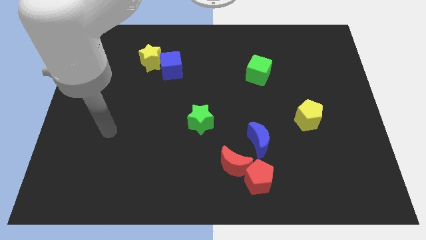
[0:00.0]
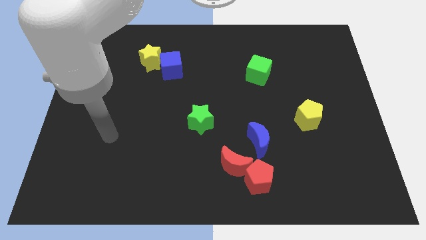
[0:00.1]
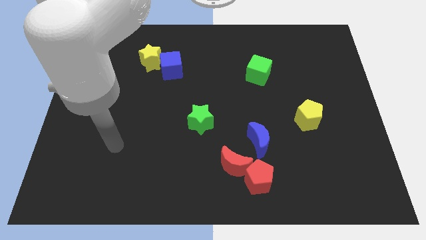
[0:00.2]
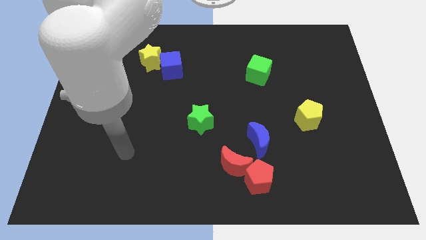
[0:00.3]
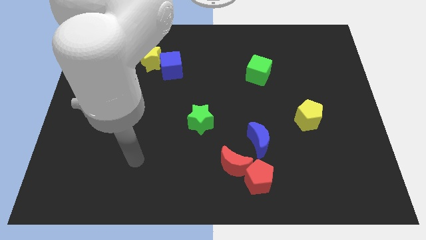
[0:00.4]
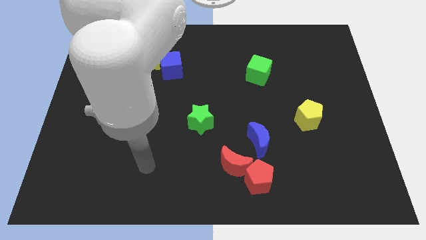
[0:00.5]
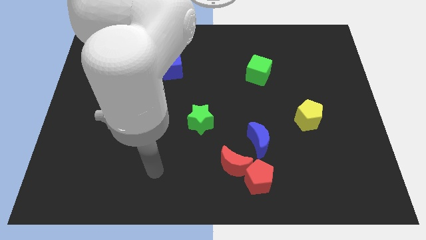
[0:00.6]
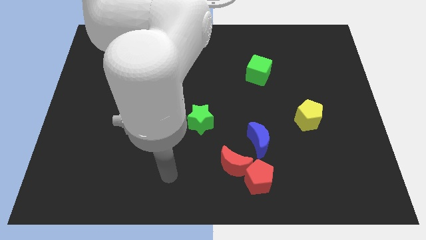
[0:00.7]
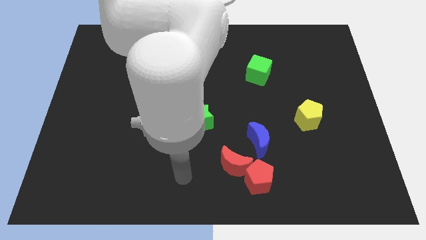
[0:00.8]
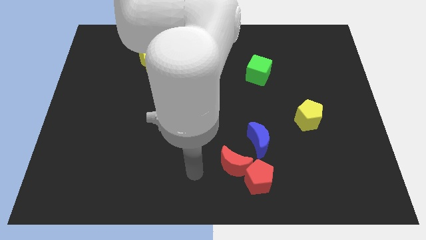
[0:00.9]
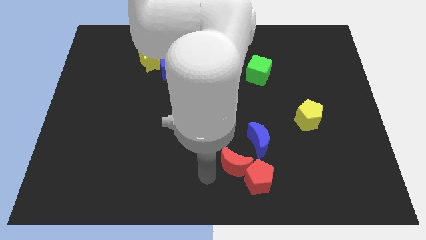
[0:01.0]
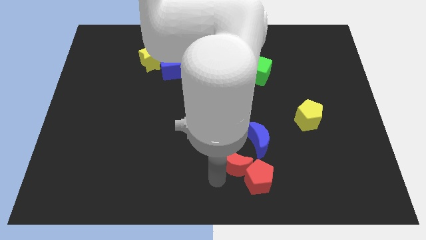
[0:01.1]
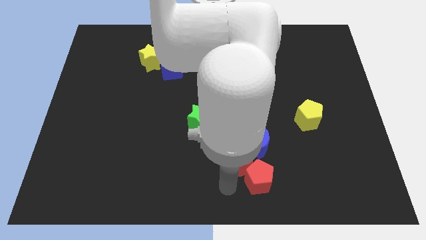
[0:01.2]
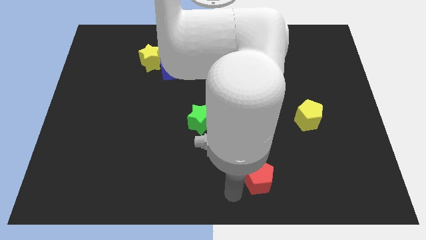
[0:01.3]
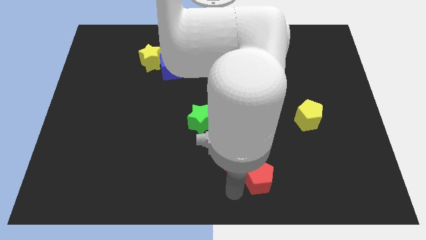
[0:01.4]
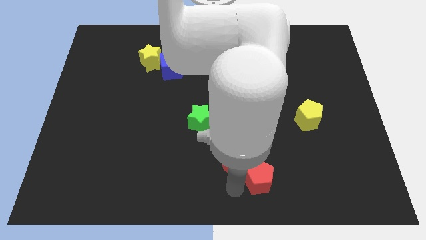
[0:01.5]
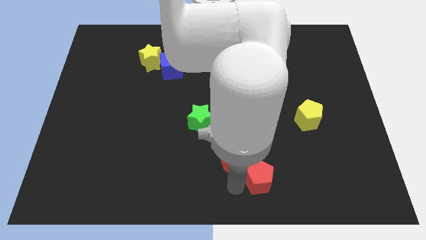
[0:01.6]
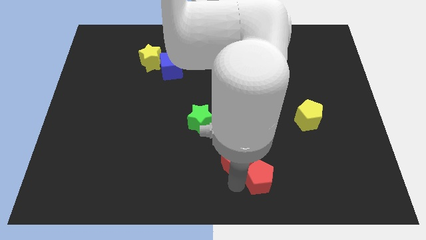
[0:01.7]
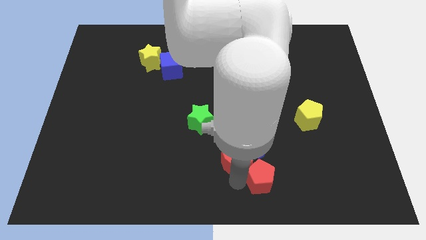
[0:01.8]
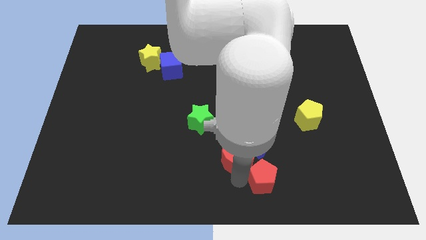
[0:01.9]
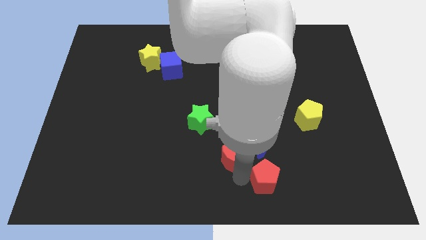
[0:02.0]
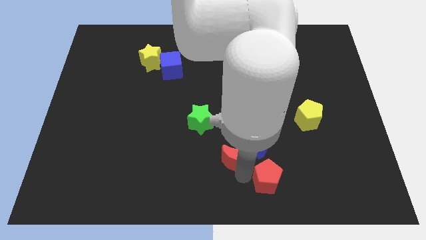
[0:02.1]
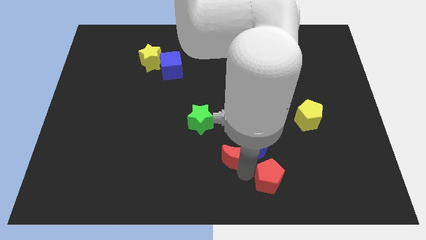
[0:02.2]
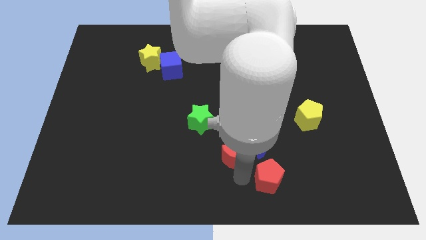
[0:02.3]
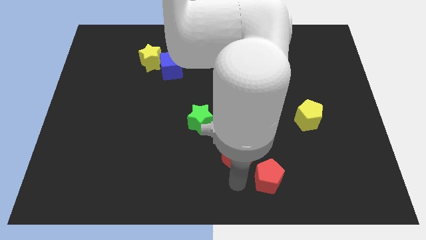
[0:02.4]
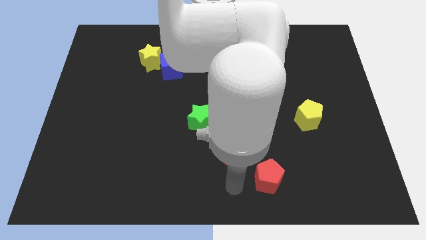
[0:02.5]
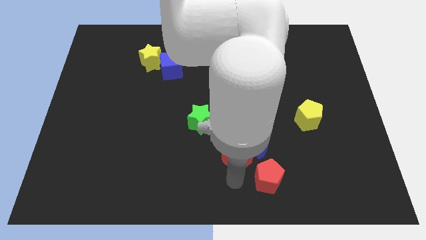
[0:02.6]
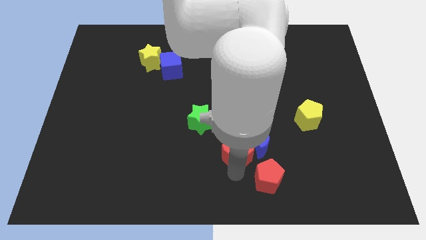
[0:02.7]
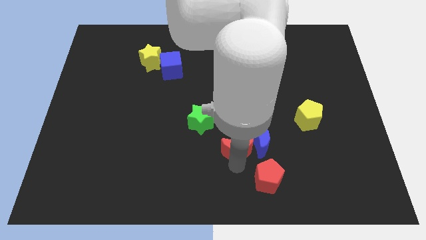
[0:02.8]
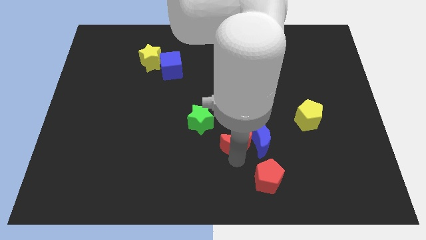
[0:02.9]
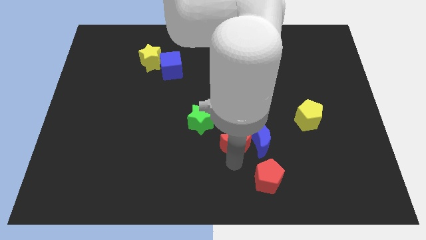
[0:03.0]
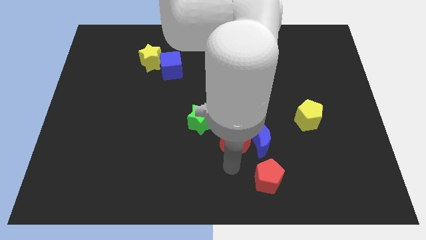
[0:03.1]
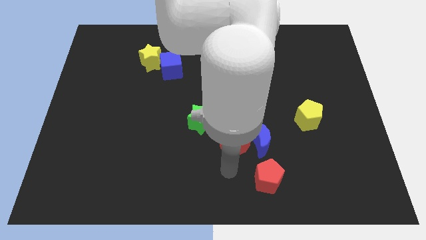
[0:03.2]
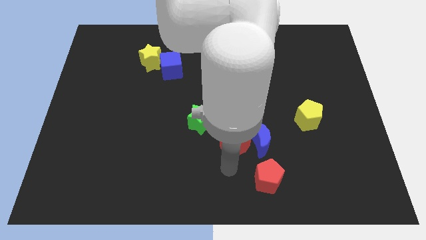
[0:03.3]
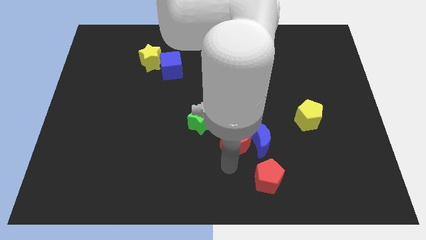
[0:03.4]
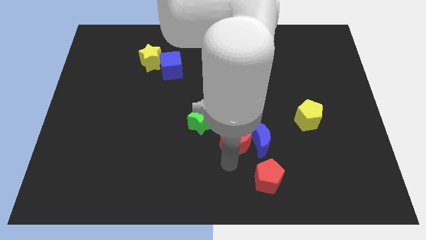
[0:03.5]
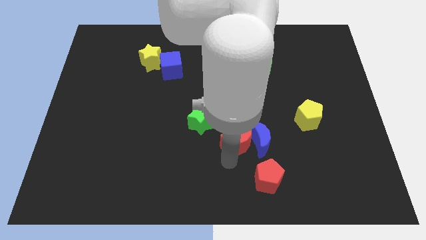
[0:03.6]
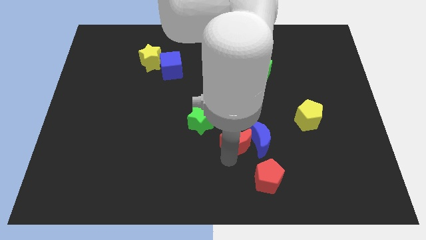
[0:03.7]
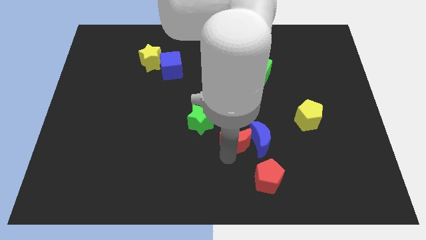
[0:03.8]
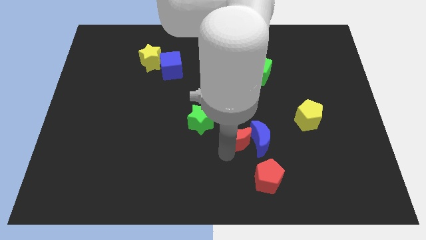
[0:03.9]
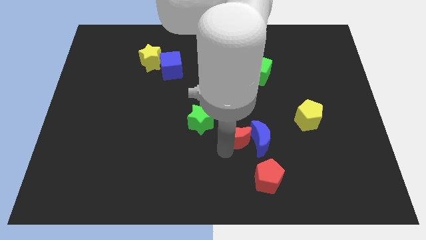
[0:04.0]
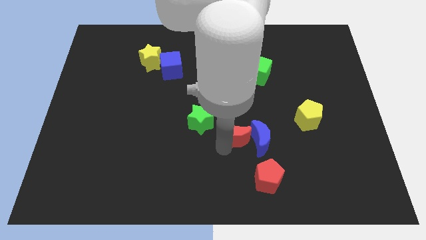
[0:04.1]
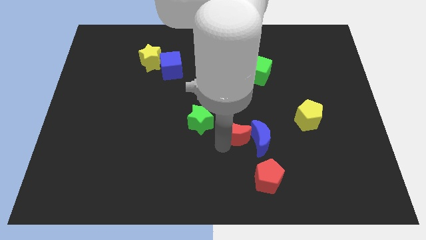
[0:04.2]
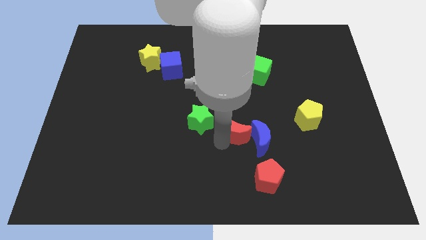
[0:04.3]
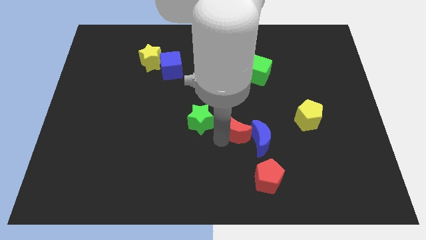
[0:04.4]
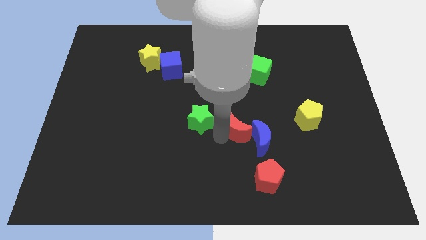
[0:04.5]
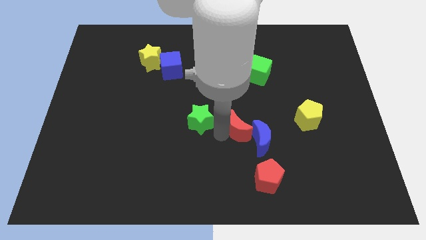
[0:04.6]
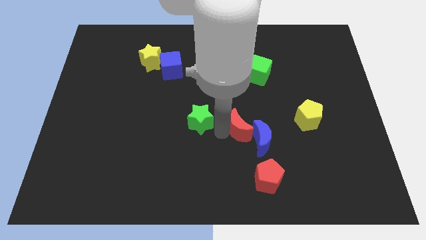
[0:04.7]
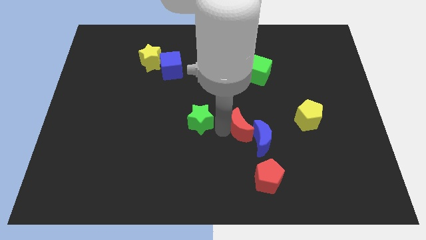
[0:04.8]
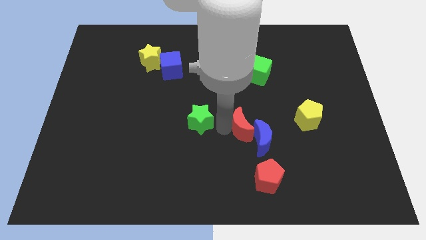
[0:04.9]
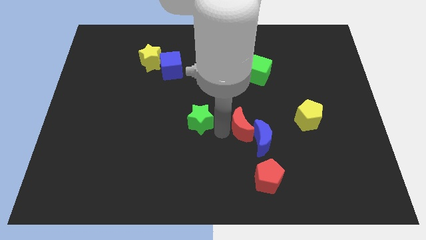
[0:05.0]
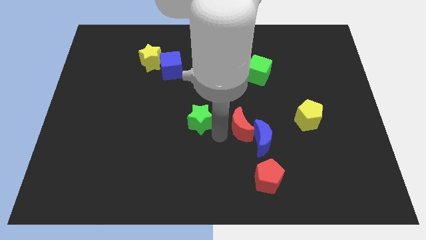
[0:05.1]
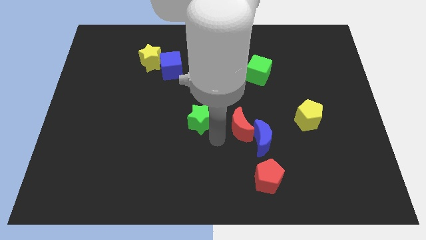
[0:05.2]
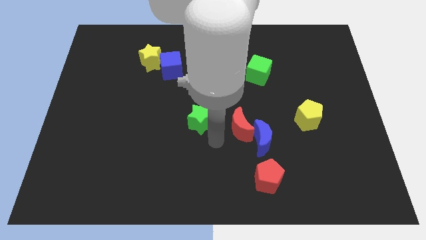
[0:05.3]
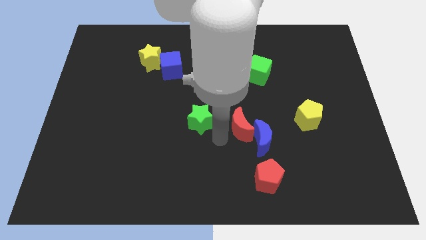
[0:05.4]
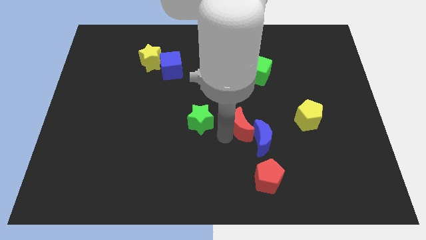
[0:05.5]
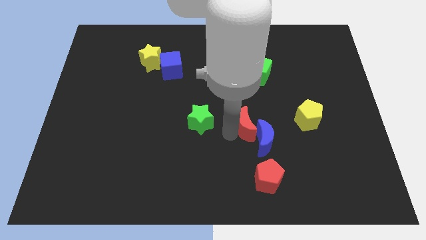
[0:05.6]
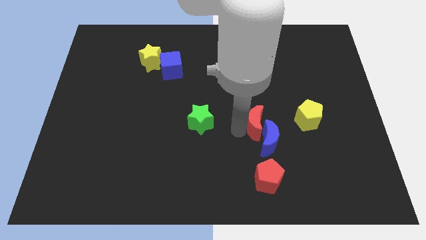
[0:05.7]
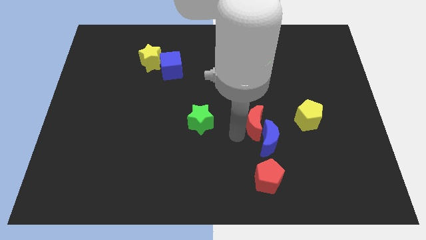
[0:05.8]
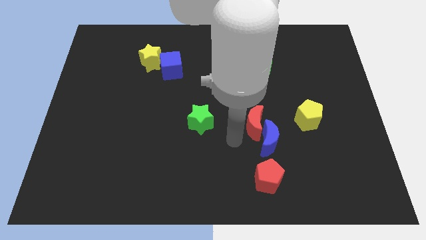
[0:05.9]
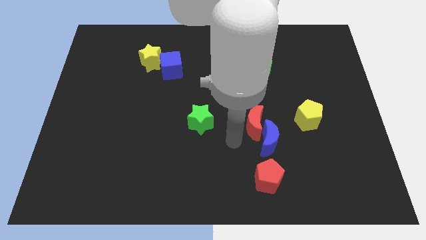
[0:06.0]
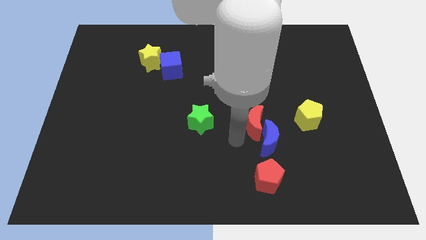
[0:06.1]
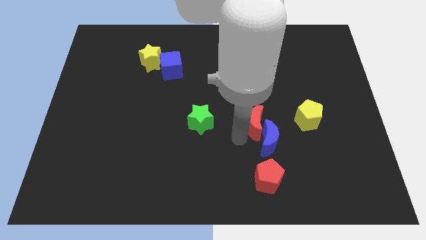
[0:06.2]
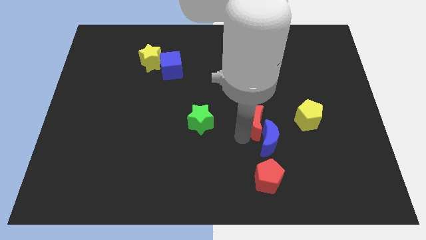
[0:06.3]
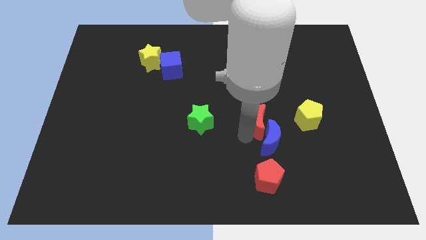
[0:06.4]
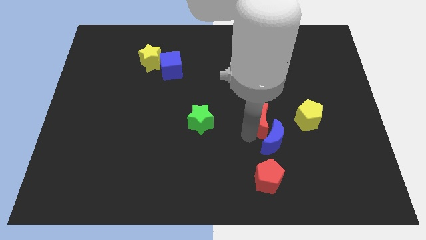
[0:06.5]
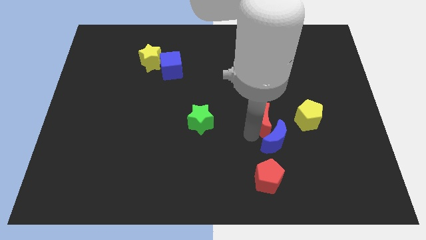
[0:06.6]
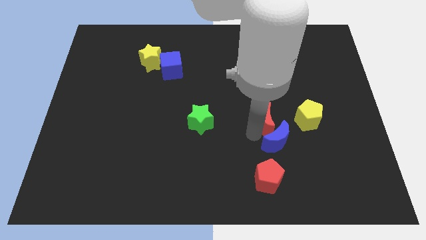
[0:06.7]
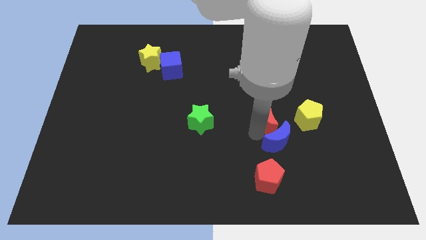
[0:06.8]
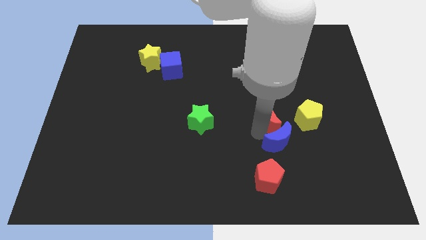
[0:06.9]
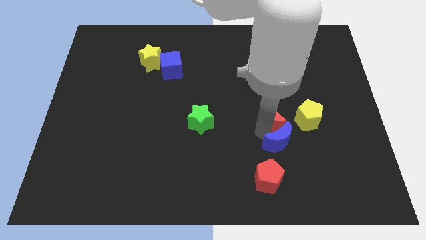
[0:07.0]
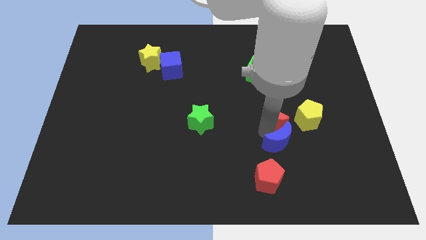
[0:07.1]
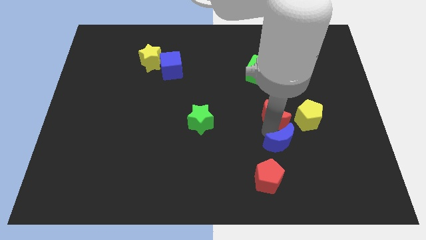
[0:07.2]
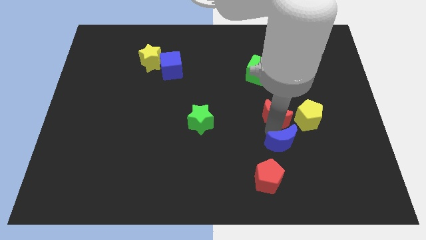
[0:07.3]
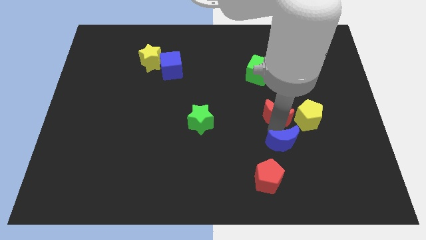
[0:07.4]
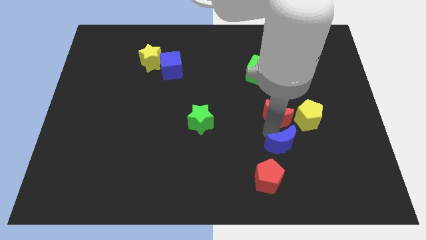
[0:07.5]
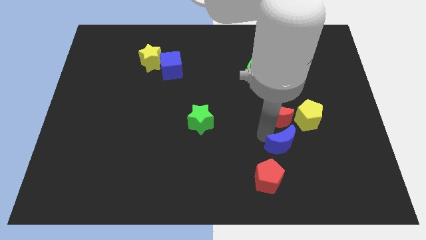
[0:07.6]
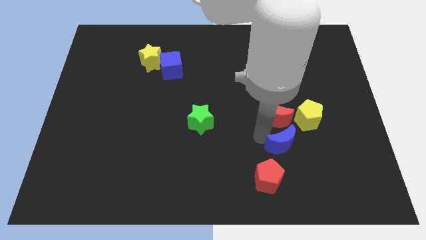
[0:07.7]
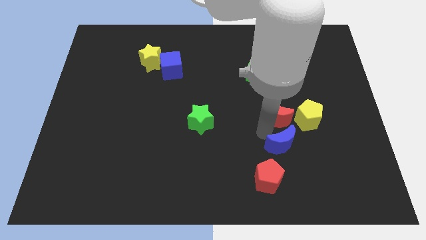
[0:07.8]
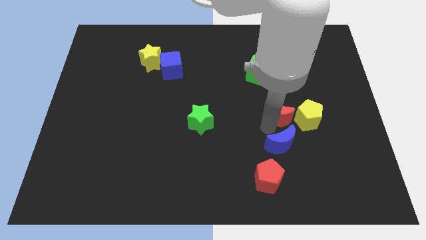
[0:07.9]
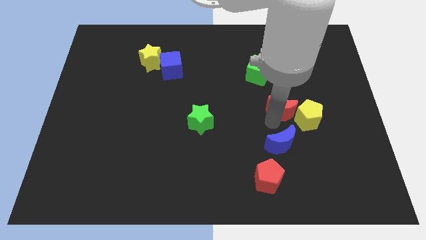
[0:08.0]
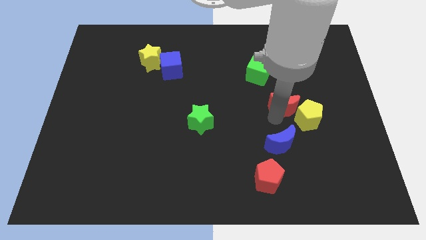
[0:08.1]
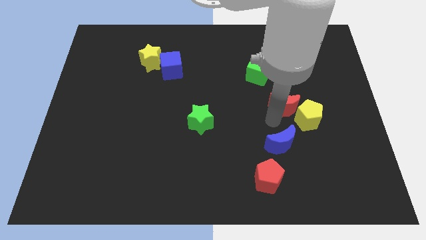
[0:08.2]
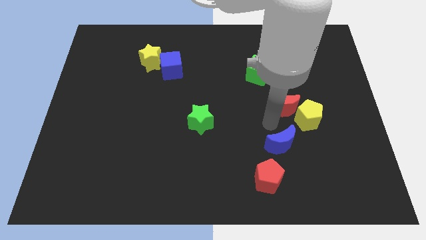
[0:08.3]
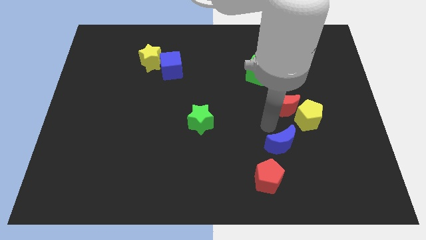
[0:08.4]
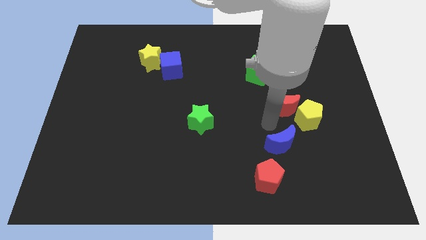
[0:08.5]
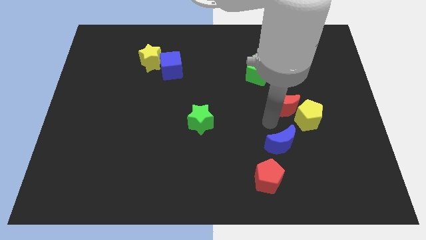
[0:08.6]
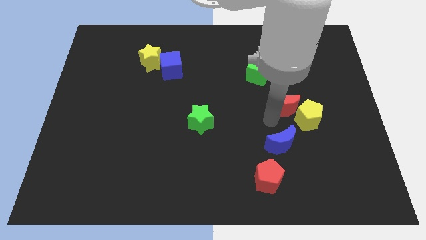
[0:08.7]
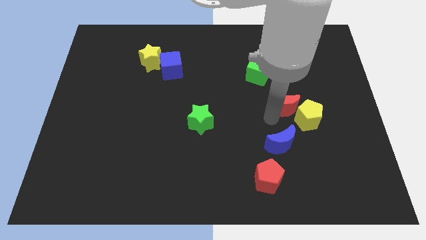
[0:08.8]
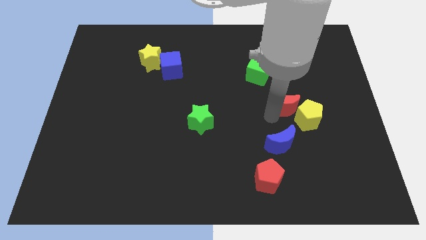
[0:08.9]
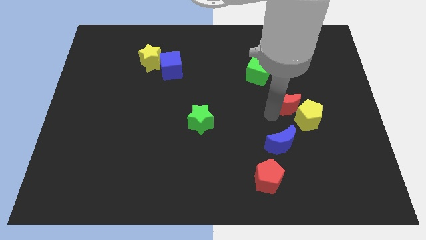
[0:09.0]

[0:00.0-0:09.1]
move the red moon diagonally upwards and to the right
